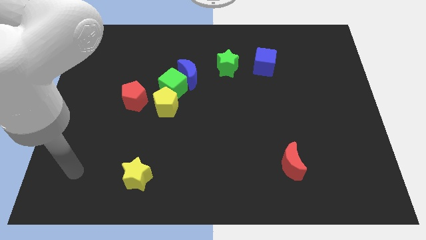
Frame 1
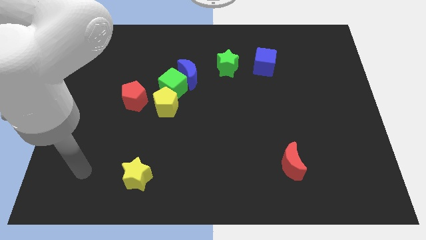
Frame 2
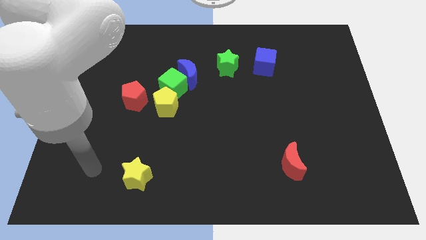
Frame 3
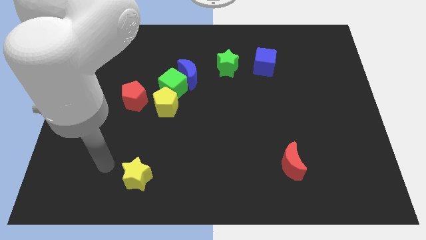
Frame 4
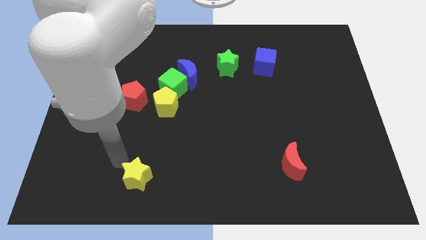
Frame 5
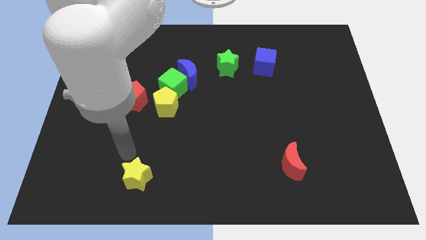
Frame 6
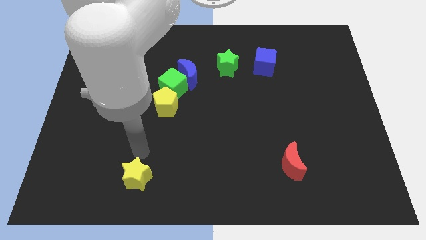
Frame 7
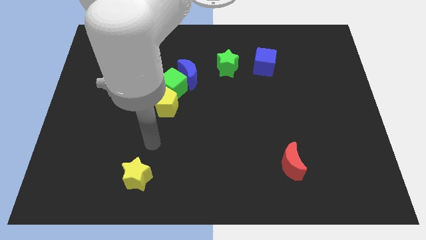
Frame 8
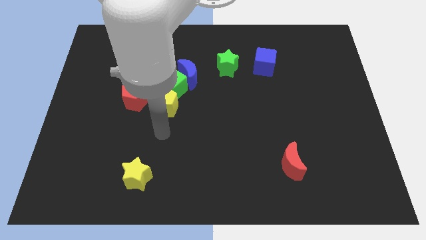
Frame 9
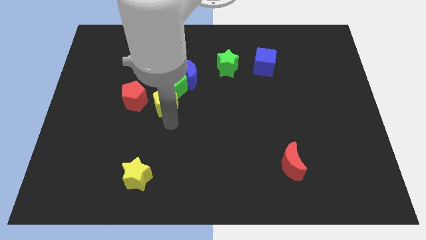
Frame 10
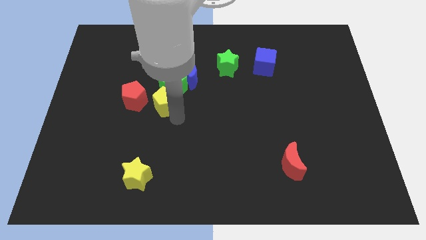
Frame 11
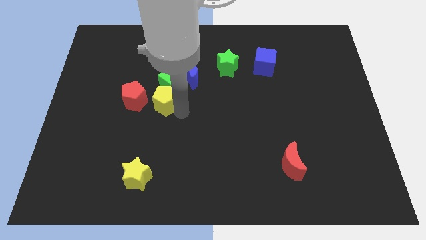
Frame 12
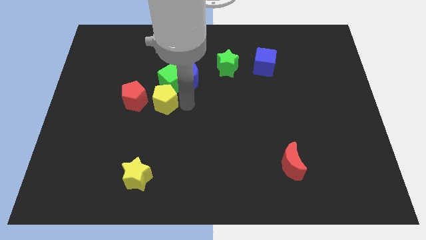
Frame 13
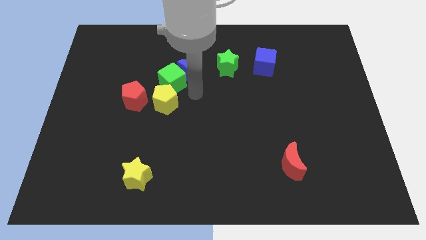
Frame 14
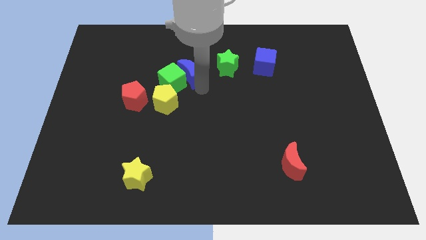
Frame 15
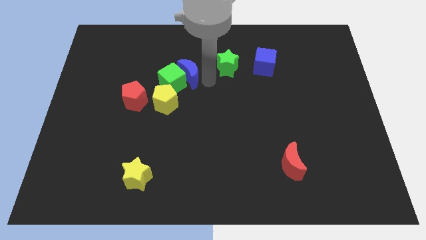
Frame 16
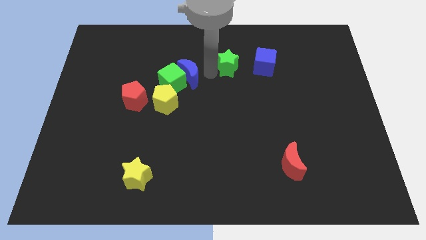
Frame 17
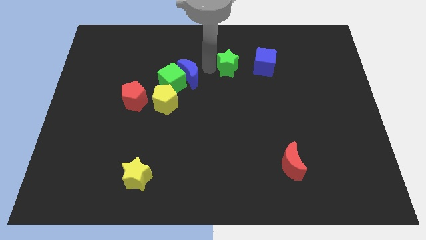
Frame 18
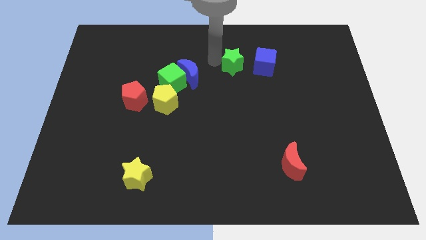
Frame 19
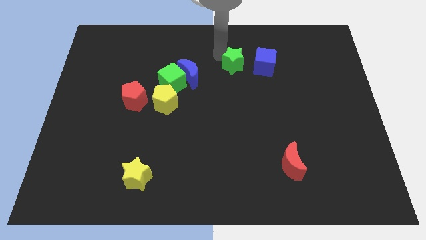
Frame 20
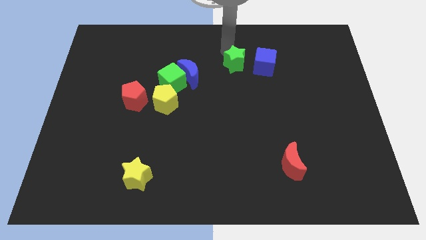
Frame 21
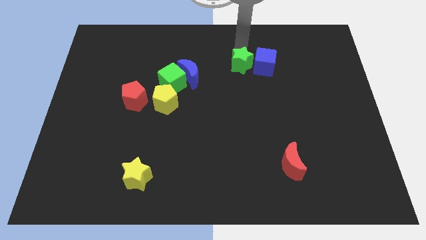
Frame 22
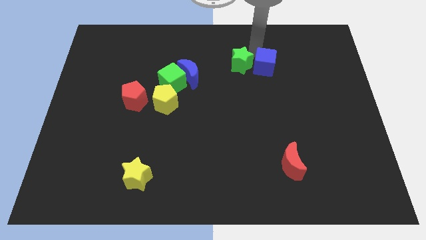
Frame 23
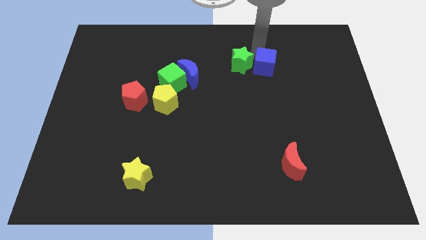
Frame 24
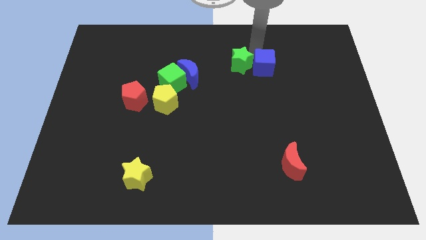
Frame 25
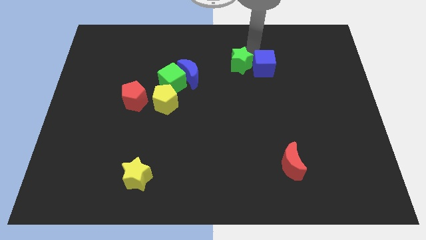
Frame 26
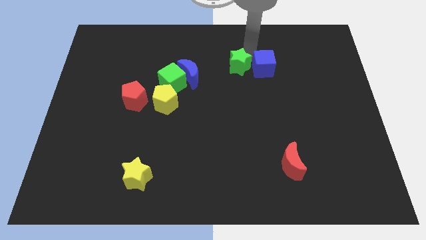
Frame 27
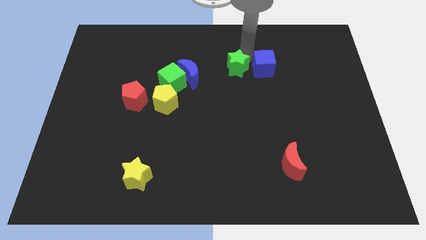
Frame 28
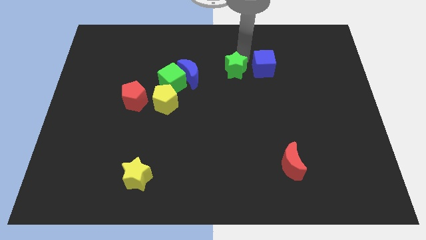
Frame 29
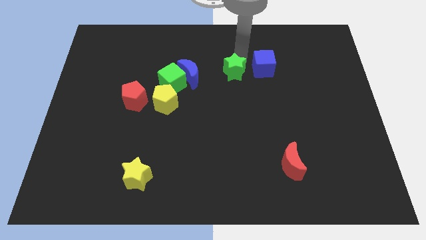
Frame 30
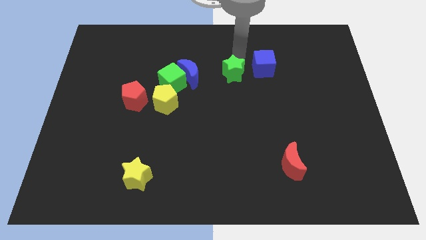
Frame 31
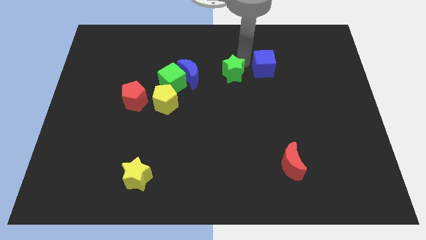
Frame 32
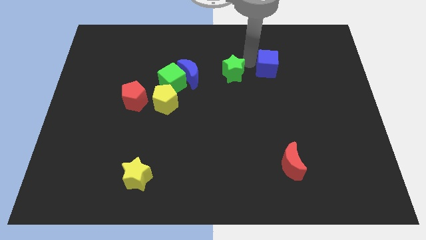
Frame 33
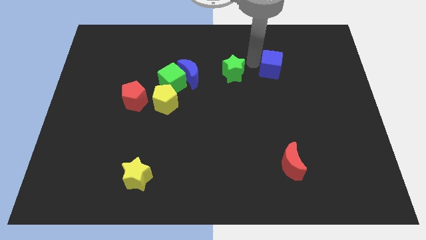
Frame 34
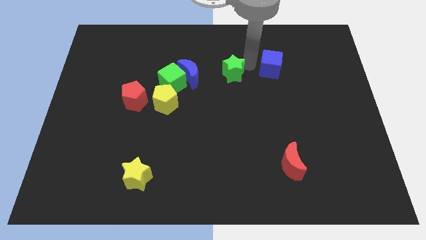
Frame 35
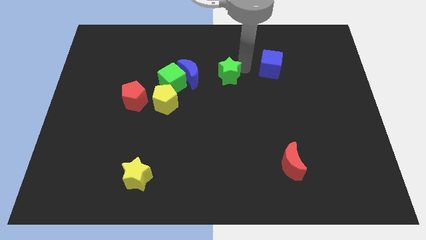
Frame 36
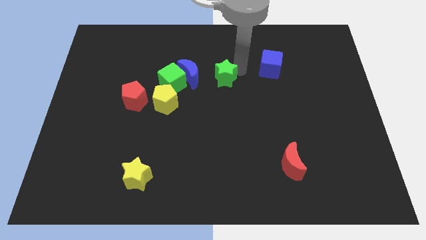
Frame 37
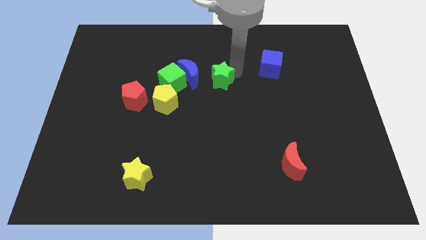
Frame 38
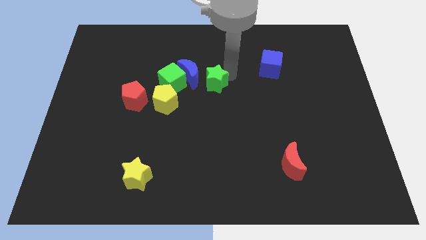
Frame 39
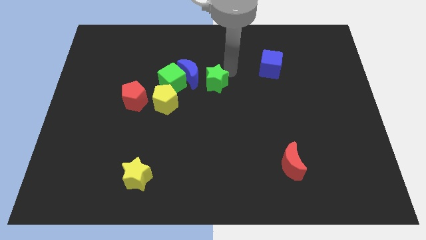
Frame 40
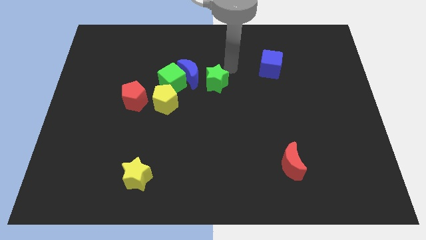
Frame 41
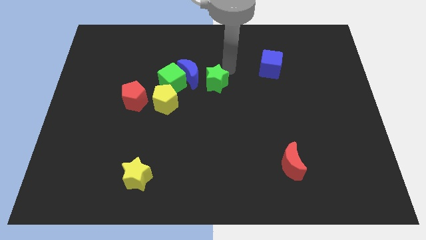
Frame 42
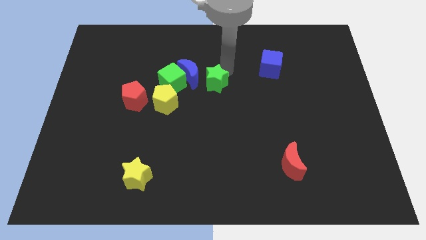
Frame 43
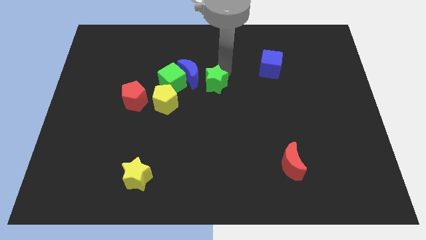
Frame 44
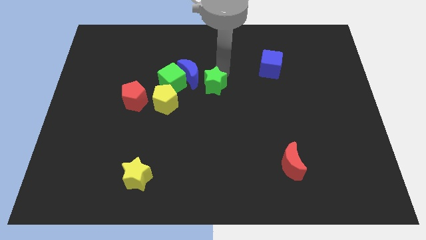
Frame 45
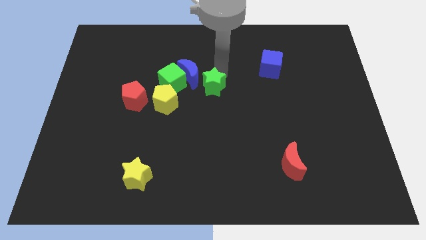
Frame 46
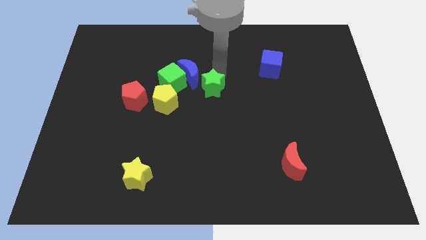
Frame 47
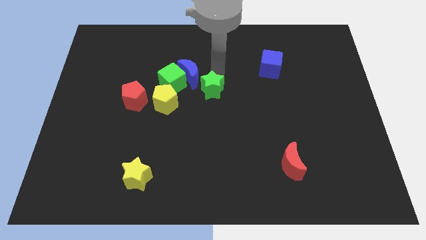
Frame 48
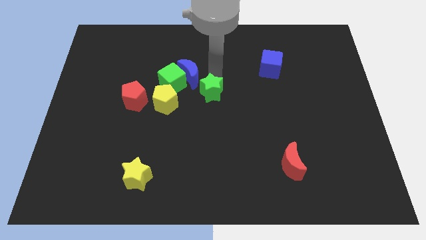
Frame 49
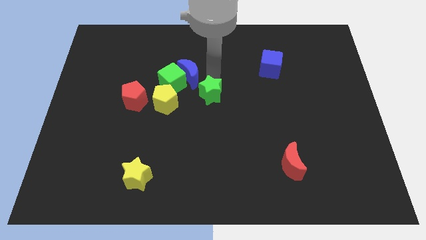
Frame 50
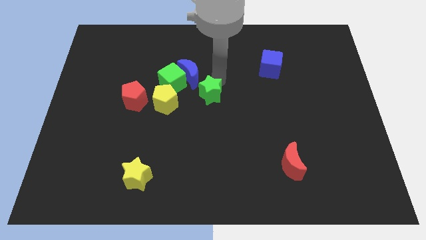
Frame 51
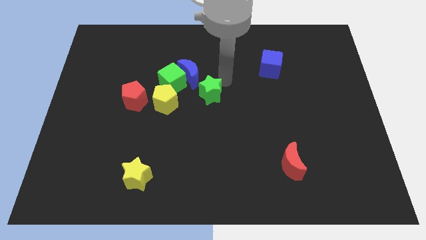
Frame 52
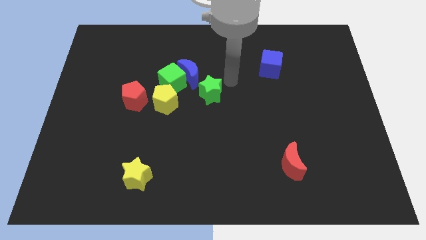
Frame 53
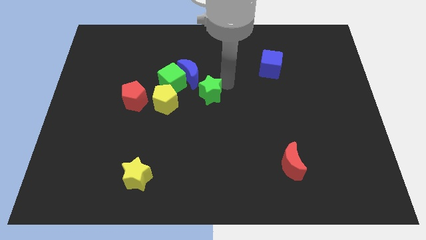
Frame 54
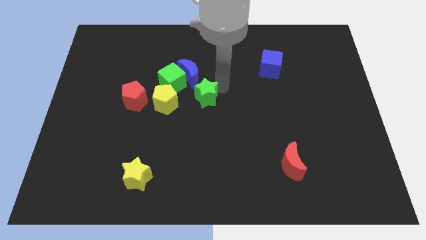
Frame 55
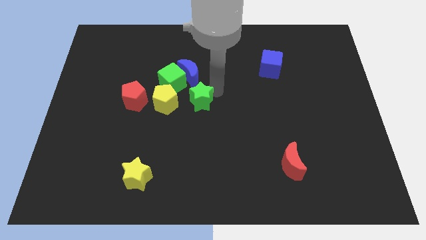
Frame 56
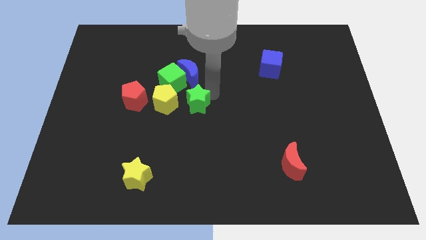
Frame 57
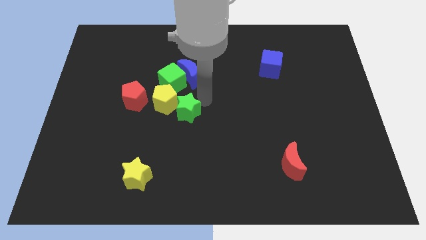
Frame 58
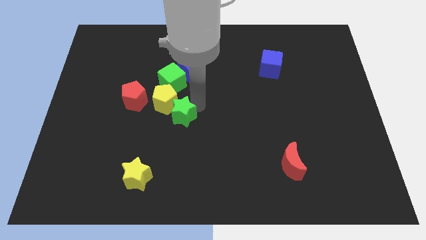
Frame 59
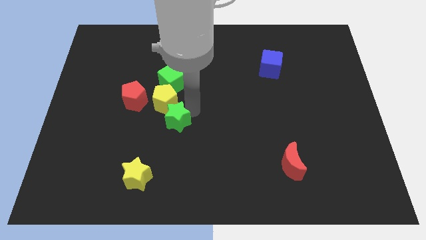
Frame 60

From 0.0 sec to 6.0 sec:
move the green star down and to the left diagonally

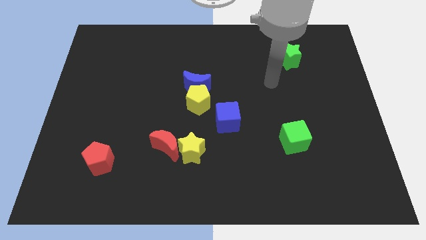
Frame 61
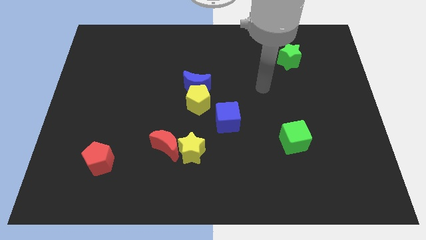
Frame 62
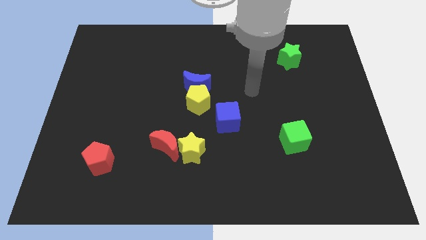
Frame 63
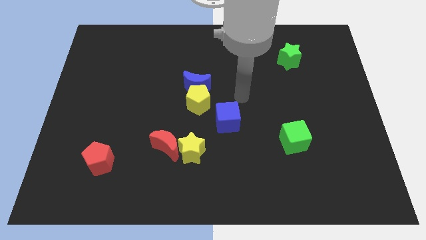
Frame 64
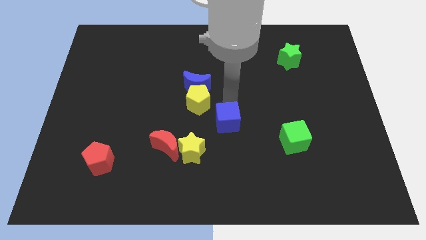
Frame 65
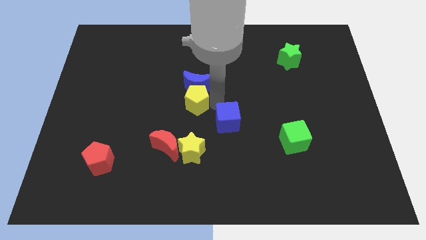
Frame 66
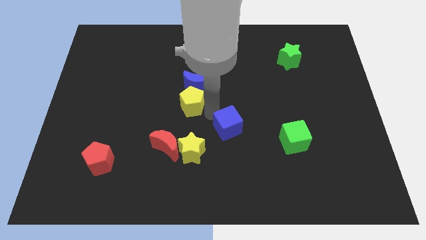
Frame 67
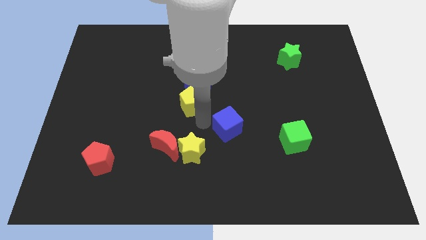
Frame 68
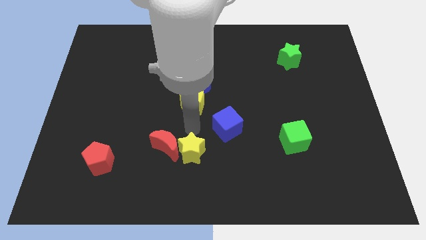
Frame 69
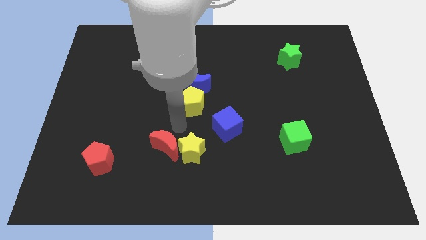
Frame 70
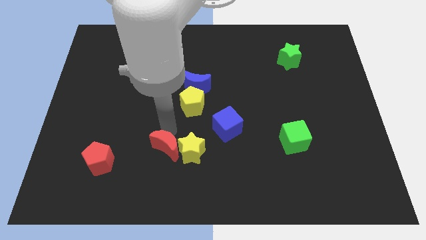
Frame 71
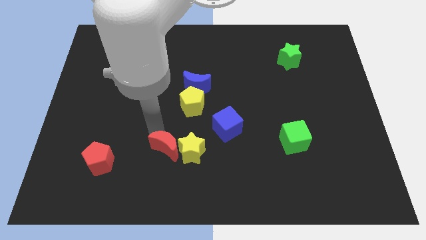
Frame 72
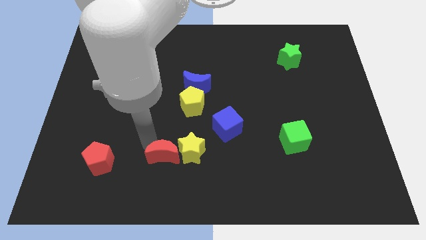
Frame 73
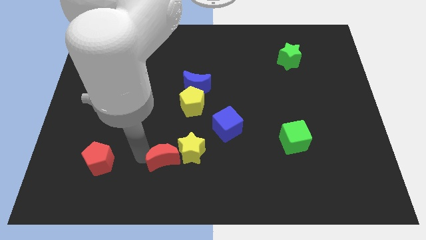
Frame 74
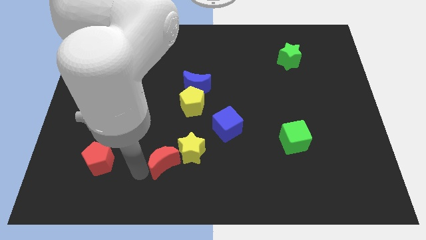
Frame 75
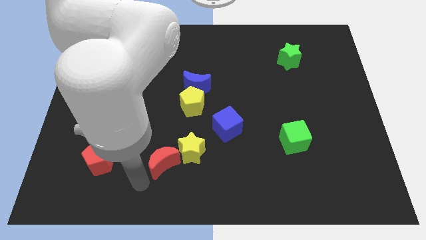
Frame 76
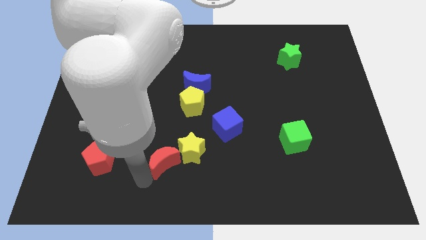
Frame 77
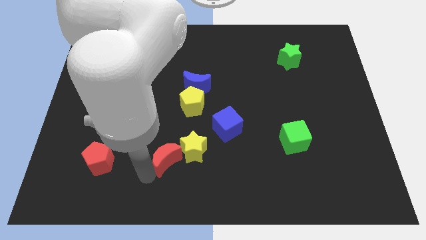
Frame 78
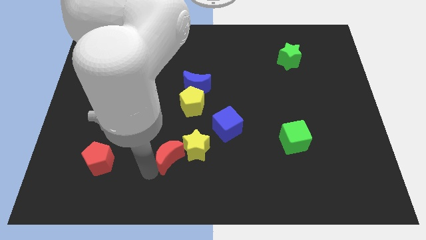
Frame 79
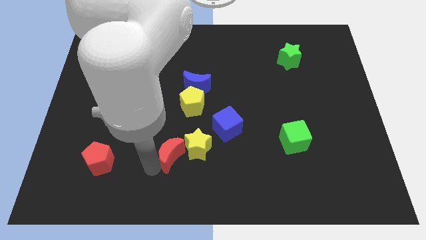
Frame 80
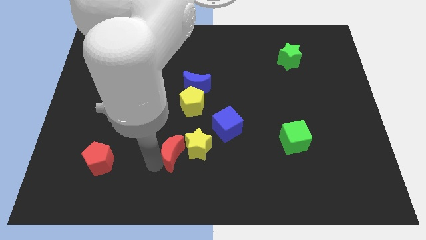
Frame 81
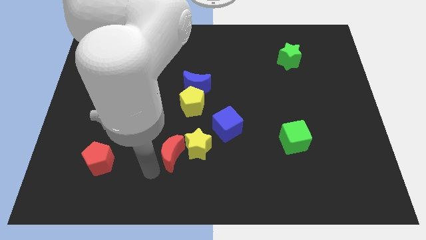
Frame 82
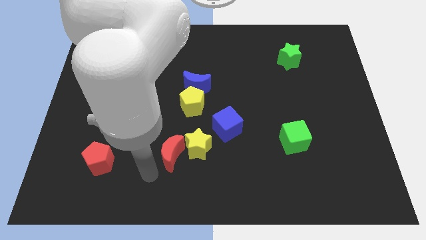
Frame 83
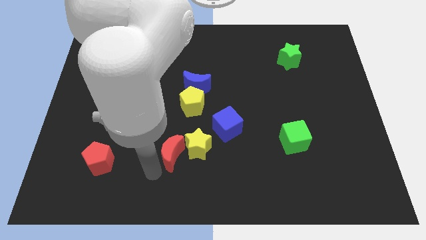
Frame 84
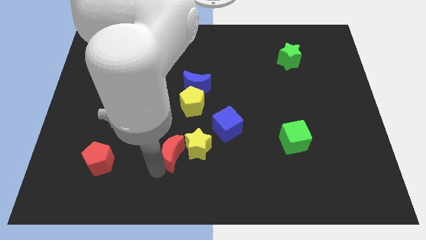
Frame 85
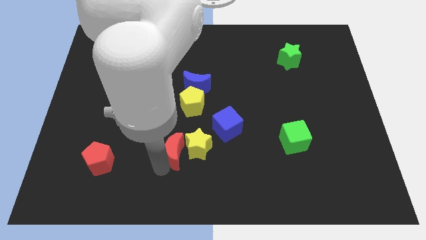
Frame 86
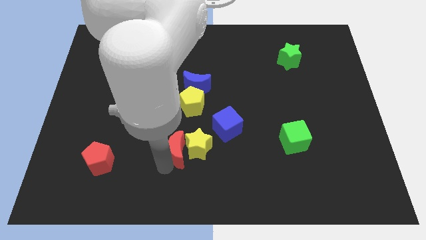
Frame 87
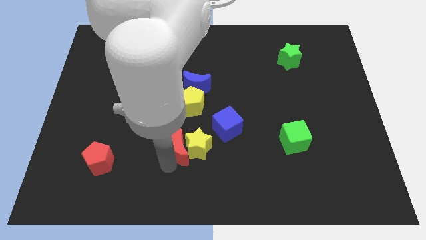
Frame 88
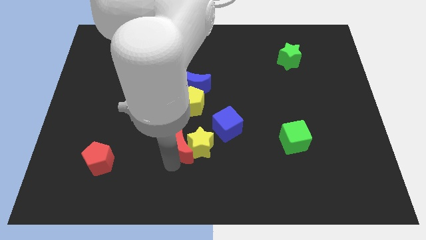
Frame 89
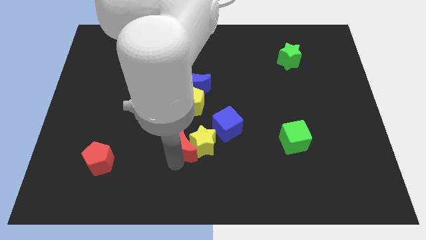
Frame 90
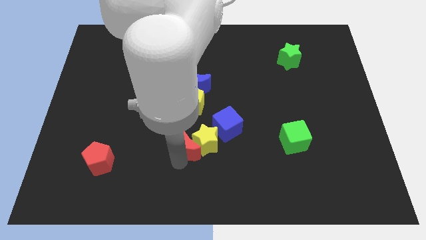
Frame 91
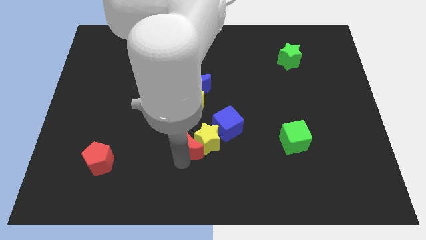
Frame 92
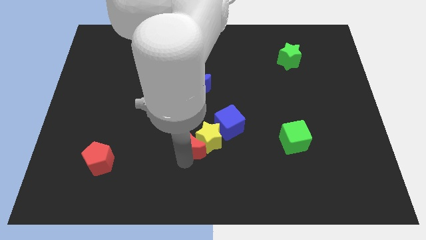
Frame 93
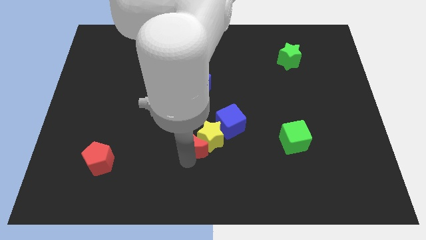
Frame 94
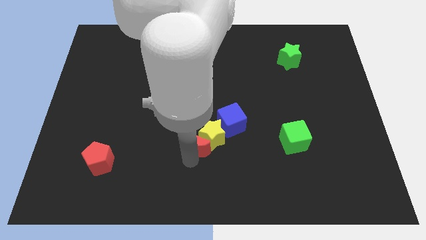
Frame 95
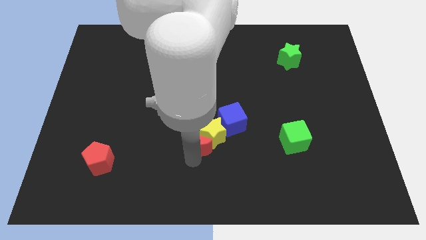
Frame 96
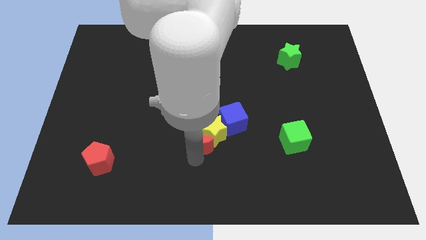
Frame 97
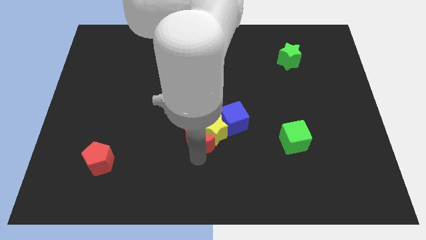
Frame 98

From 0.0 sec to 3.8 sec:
slightly move the red moon right
